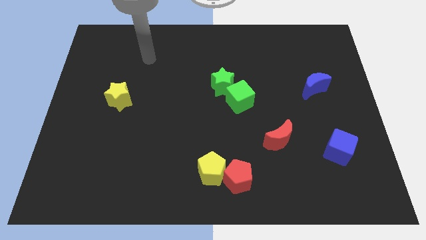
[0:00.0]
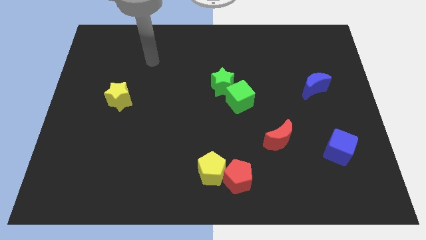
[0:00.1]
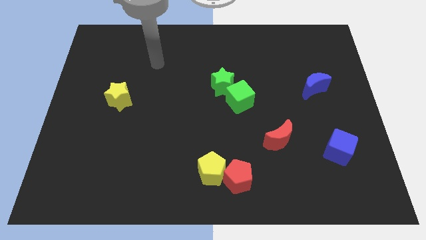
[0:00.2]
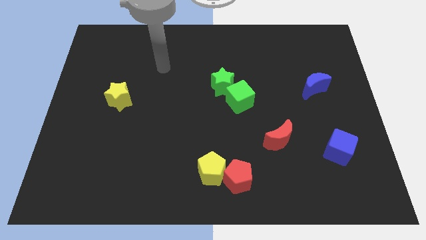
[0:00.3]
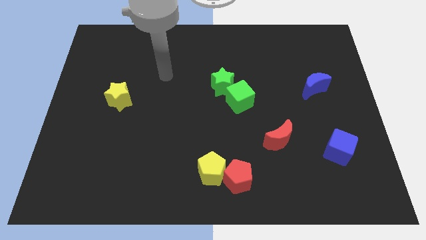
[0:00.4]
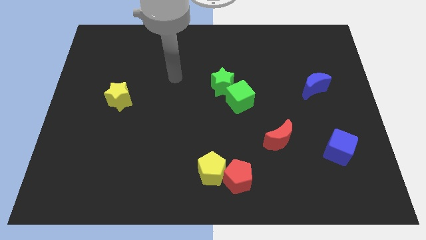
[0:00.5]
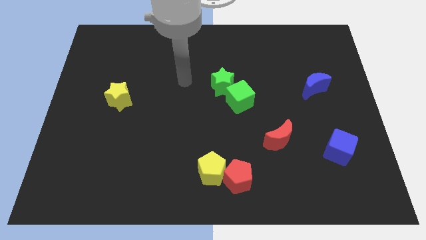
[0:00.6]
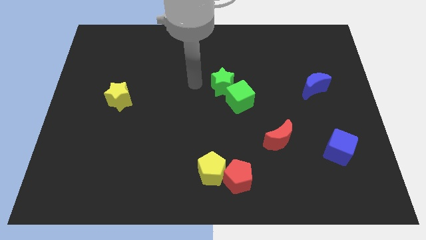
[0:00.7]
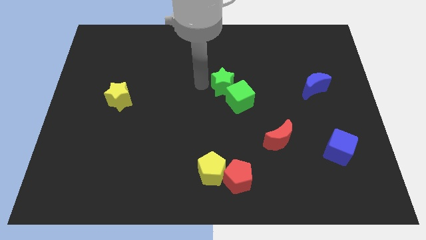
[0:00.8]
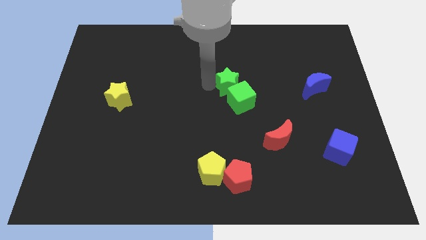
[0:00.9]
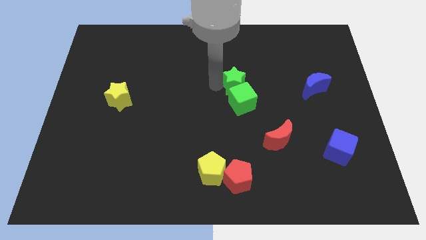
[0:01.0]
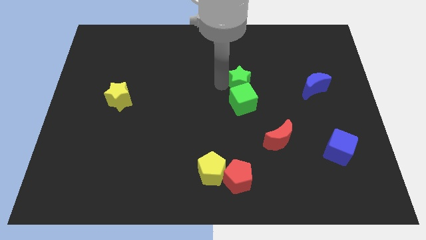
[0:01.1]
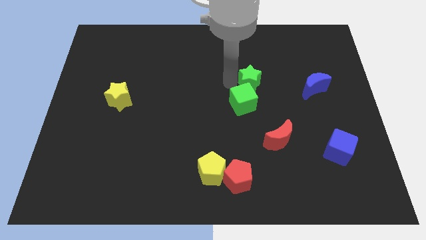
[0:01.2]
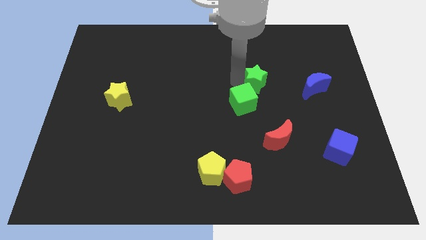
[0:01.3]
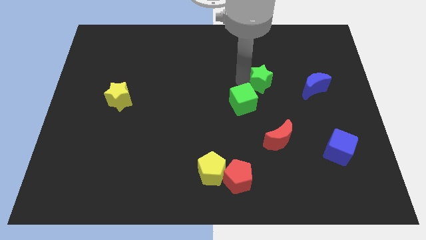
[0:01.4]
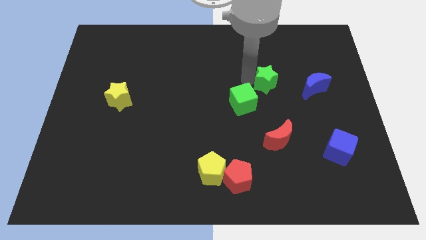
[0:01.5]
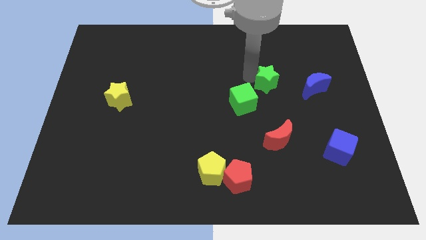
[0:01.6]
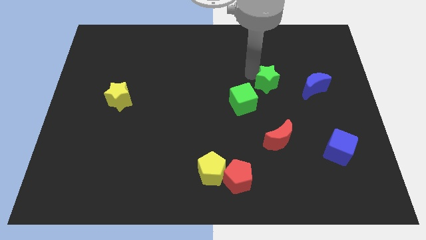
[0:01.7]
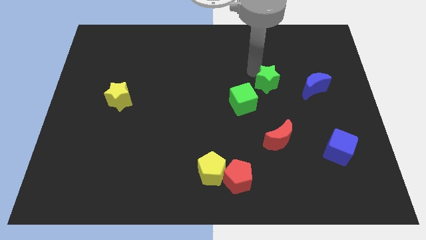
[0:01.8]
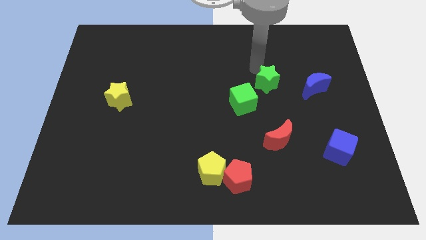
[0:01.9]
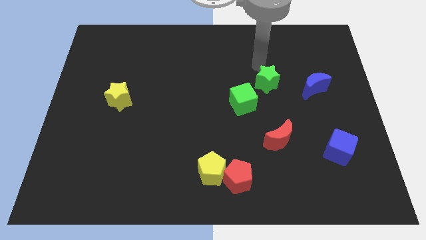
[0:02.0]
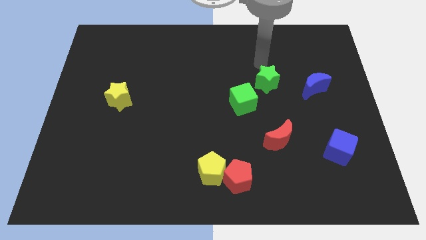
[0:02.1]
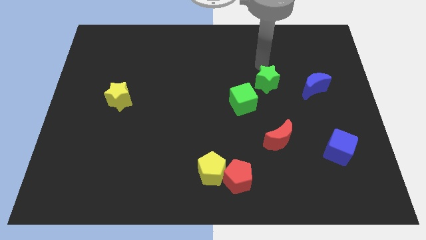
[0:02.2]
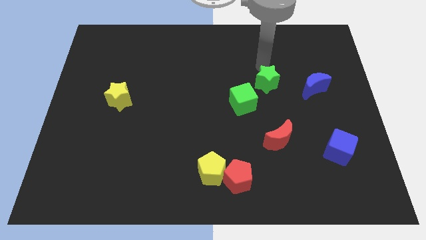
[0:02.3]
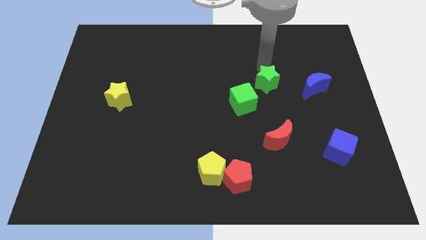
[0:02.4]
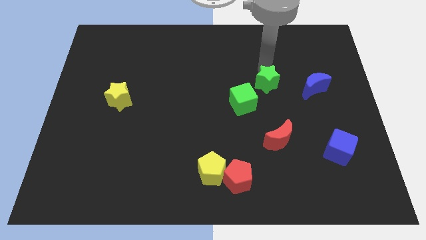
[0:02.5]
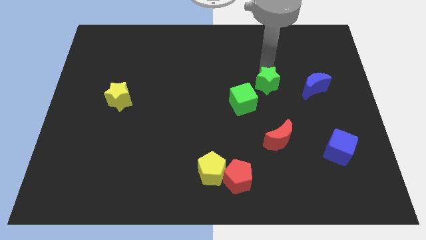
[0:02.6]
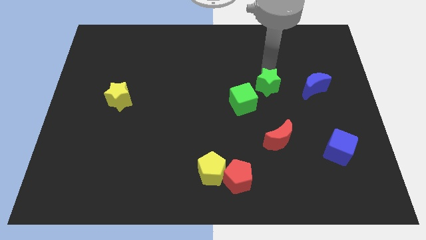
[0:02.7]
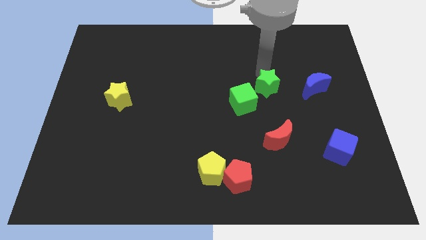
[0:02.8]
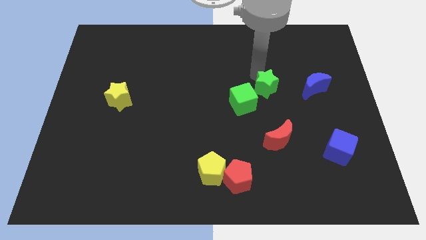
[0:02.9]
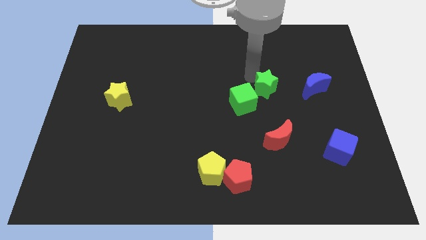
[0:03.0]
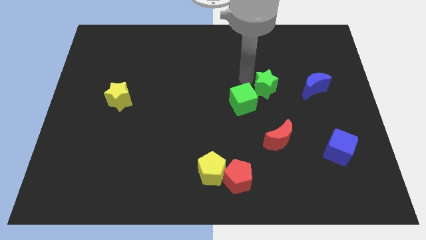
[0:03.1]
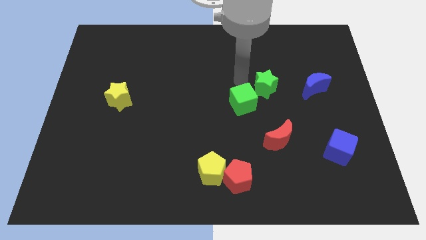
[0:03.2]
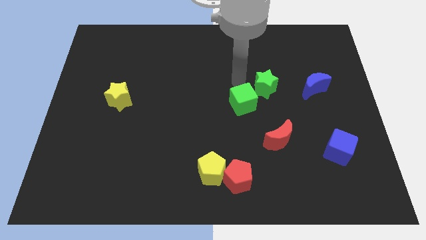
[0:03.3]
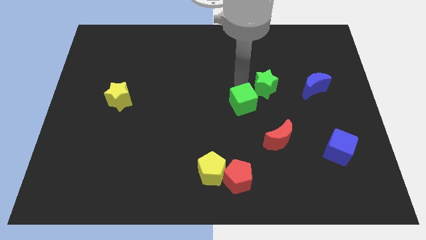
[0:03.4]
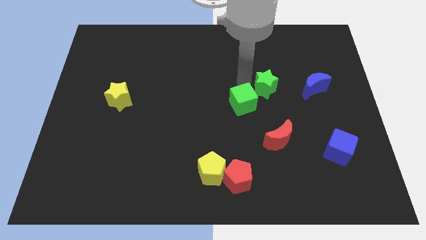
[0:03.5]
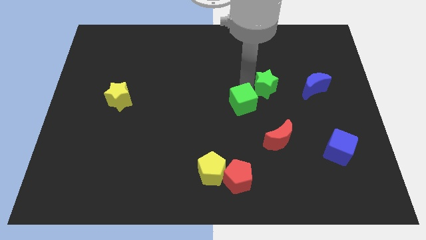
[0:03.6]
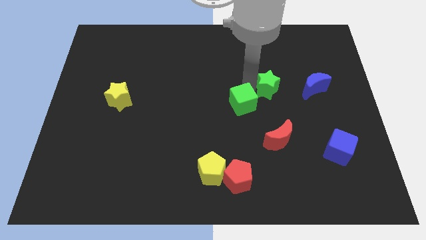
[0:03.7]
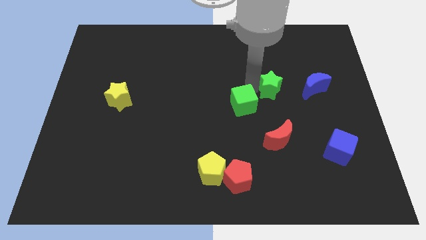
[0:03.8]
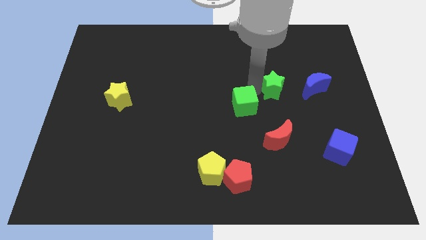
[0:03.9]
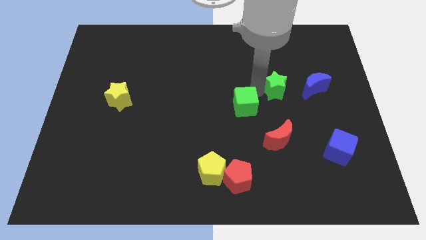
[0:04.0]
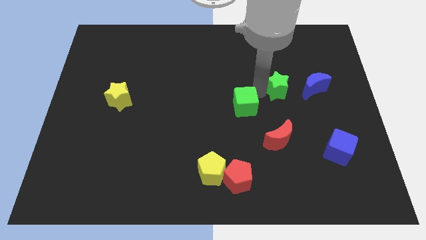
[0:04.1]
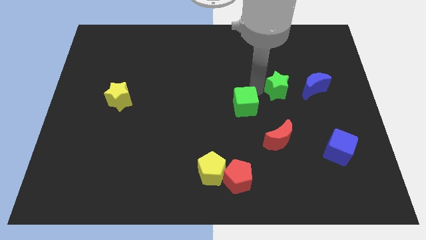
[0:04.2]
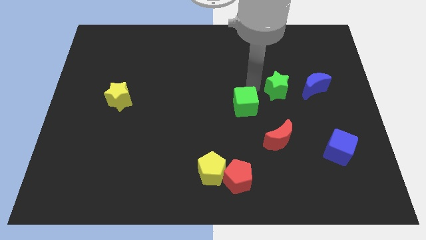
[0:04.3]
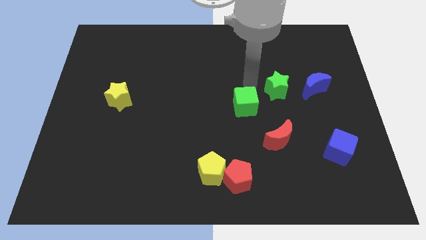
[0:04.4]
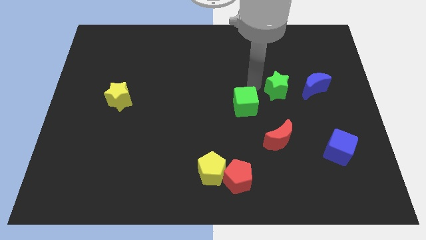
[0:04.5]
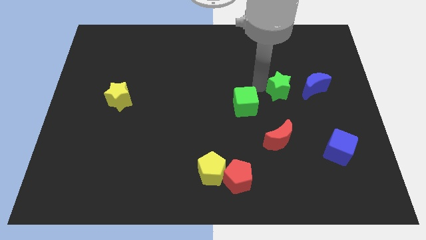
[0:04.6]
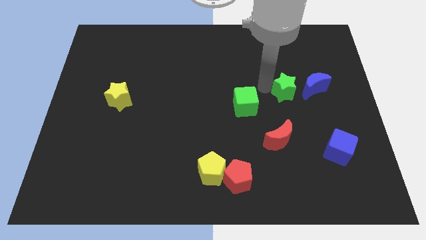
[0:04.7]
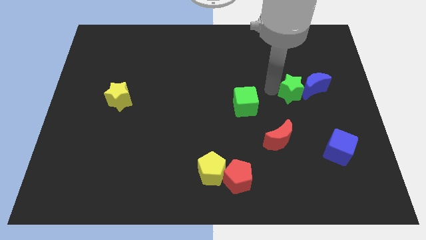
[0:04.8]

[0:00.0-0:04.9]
put the green star next to the blue moon

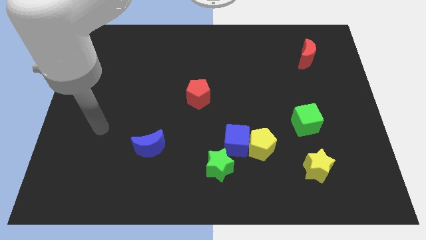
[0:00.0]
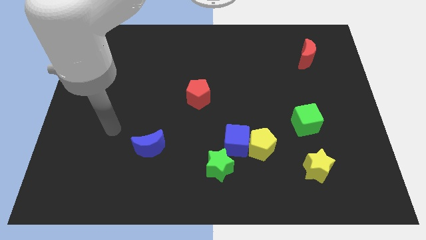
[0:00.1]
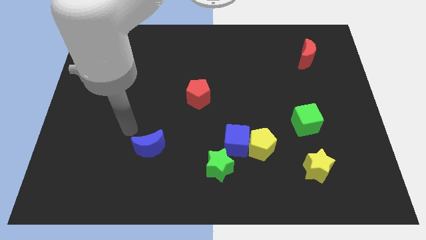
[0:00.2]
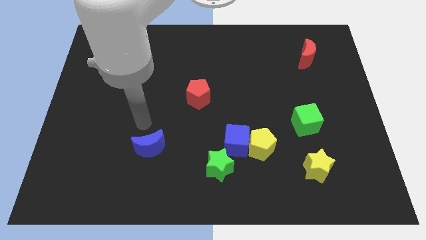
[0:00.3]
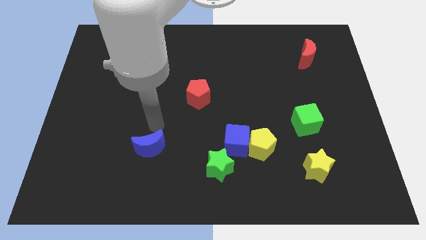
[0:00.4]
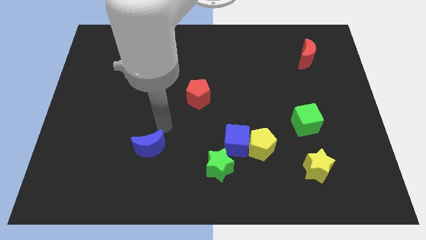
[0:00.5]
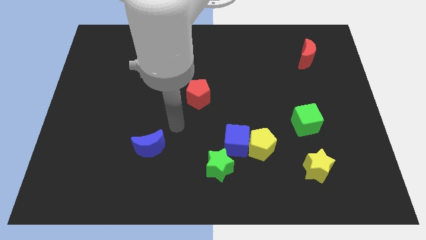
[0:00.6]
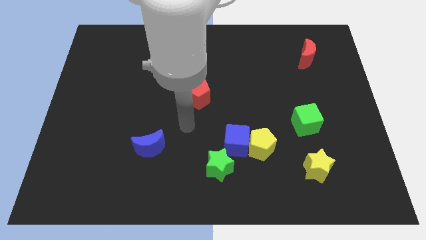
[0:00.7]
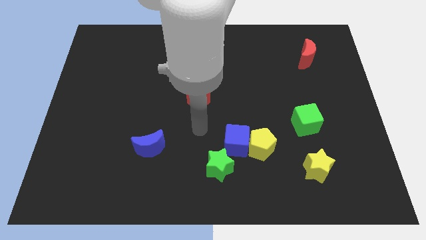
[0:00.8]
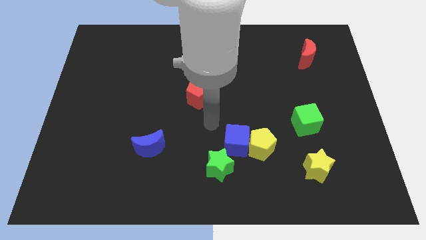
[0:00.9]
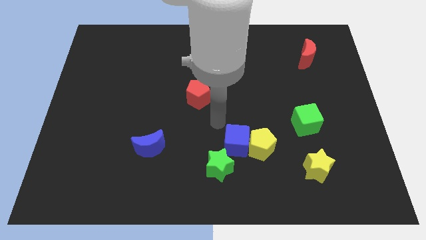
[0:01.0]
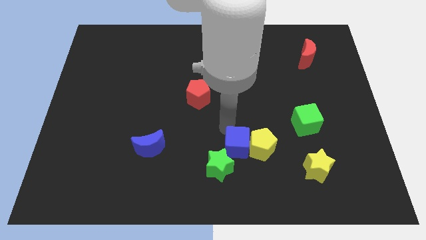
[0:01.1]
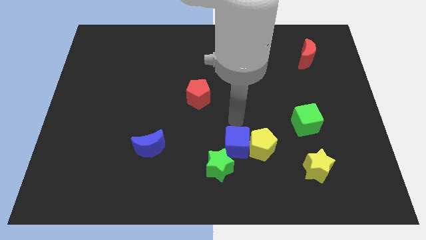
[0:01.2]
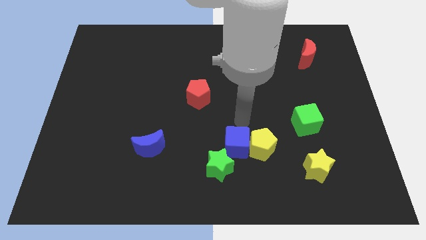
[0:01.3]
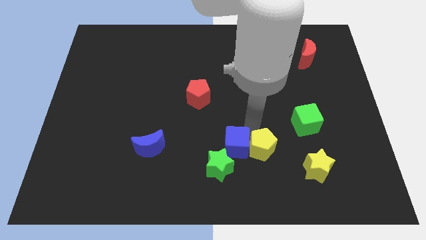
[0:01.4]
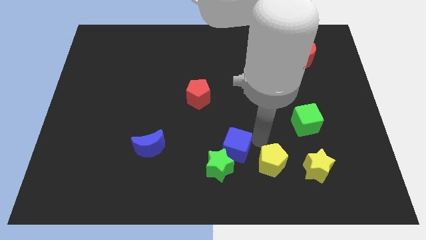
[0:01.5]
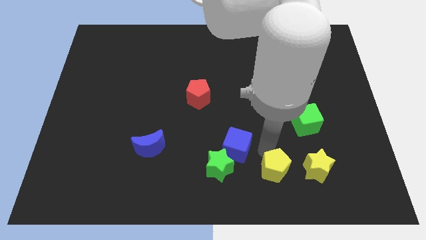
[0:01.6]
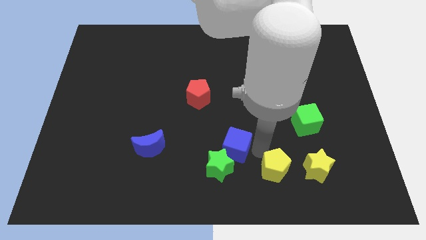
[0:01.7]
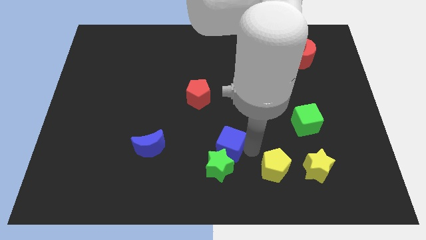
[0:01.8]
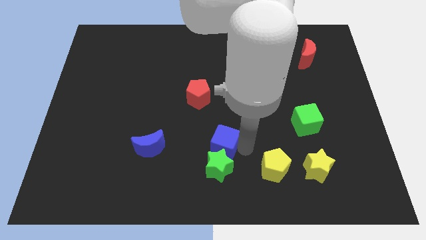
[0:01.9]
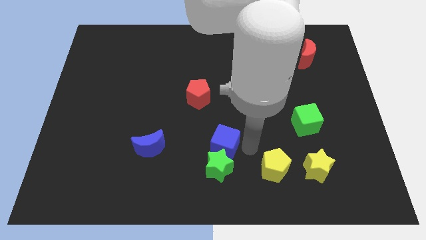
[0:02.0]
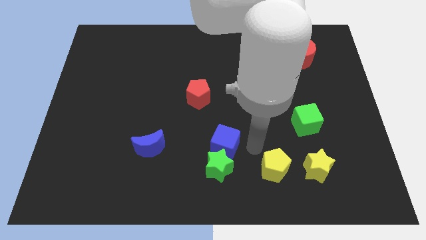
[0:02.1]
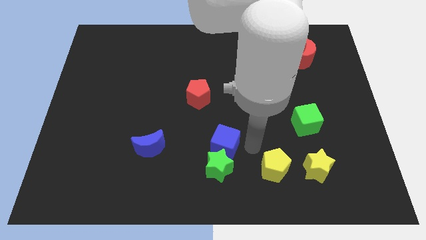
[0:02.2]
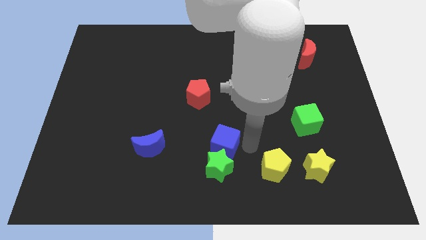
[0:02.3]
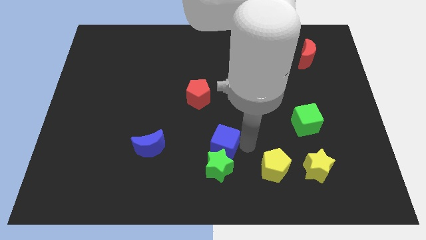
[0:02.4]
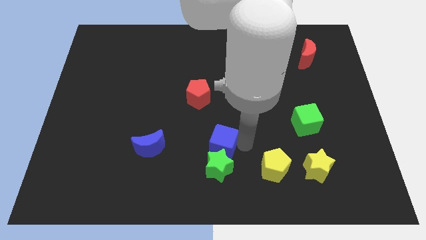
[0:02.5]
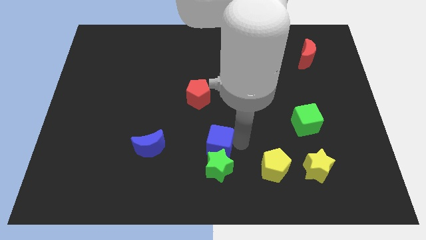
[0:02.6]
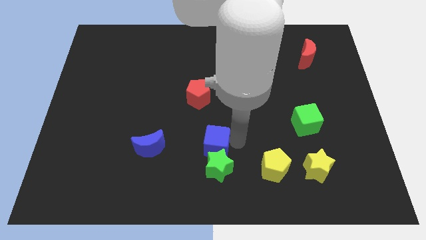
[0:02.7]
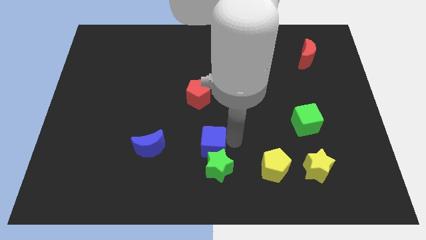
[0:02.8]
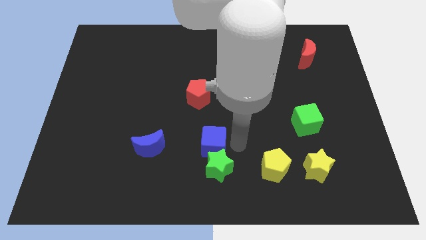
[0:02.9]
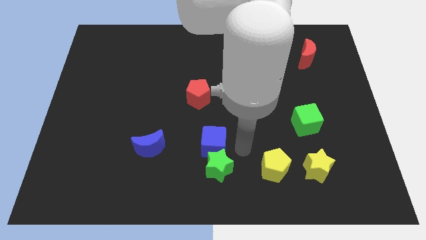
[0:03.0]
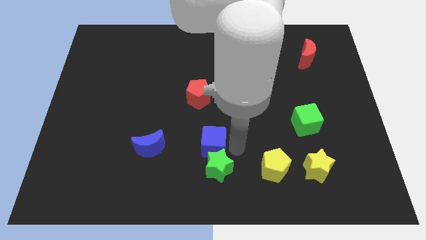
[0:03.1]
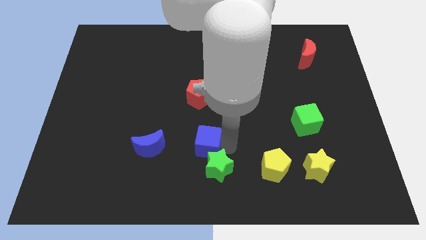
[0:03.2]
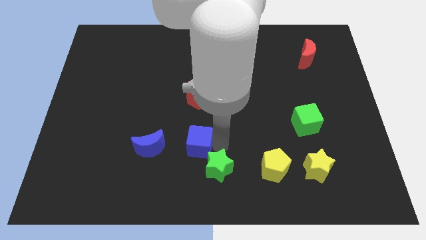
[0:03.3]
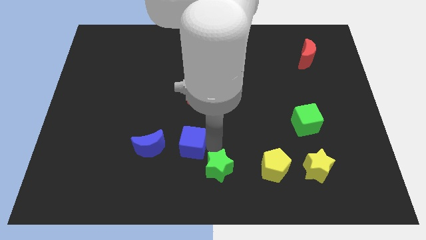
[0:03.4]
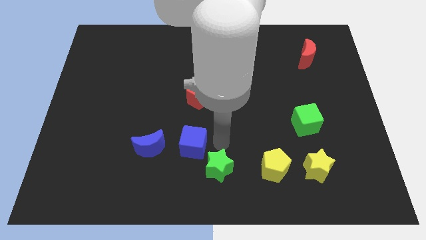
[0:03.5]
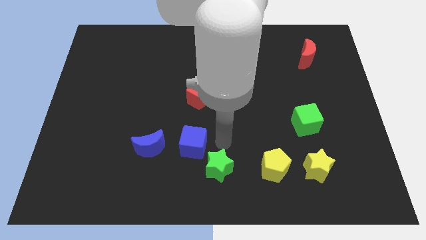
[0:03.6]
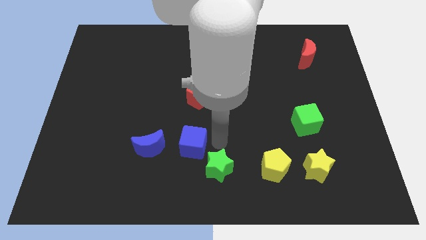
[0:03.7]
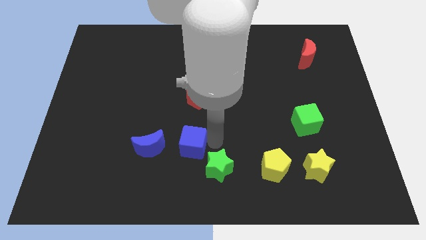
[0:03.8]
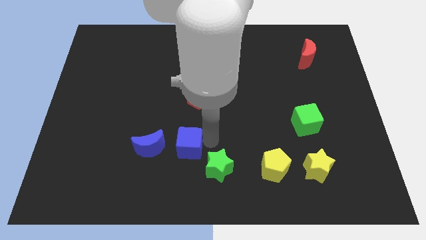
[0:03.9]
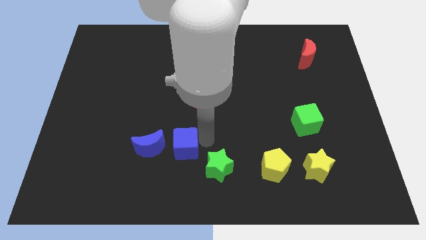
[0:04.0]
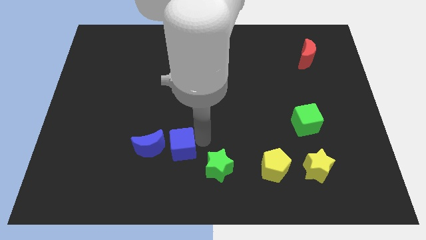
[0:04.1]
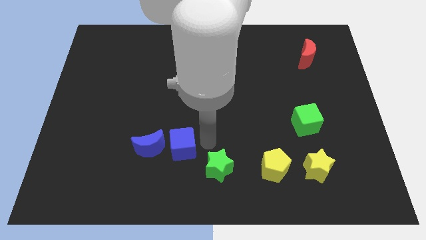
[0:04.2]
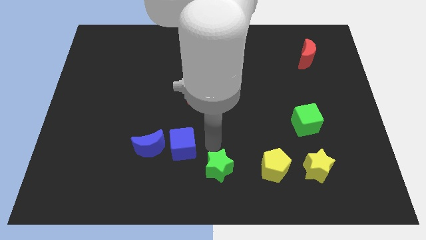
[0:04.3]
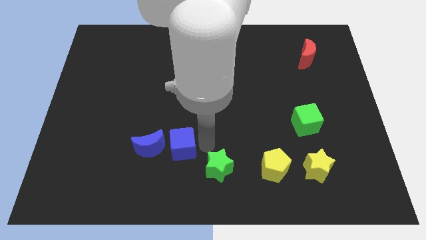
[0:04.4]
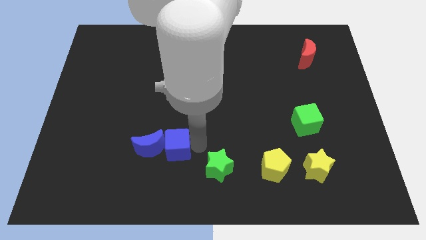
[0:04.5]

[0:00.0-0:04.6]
push the blue cube to the blue moon
